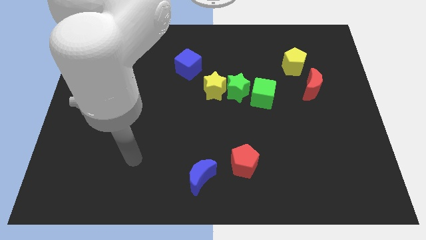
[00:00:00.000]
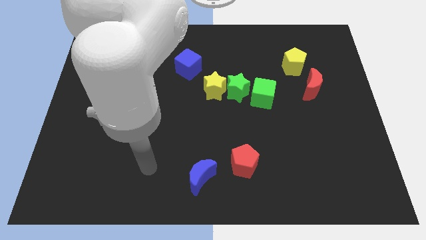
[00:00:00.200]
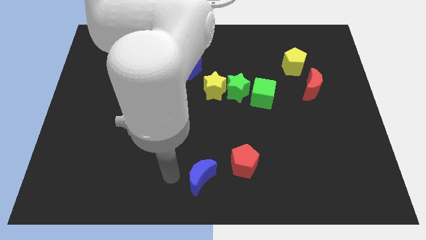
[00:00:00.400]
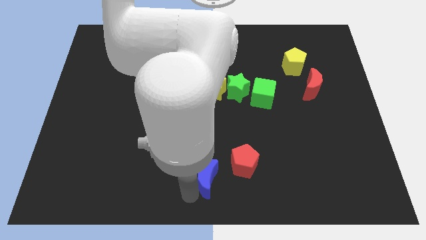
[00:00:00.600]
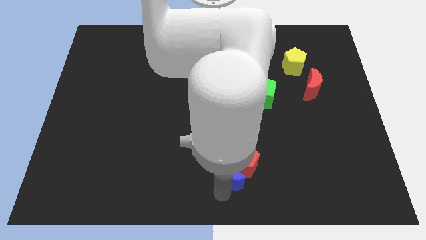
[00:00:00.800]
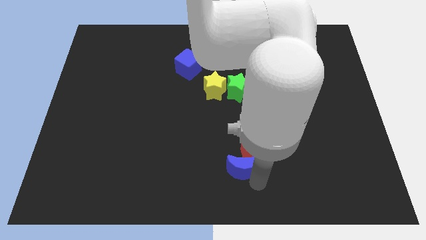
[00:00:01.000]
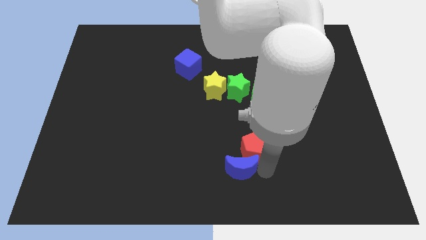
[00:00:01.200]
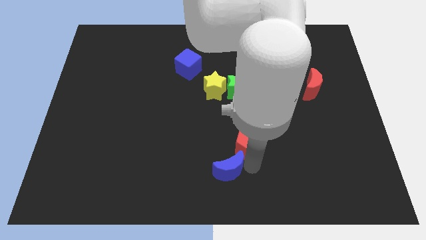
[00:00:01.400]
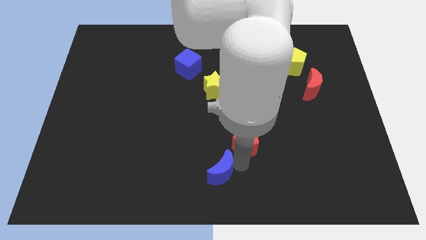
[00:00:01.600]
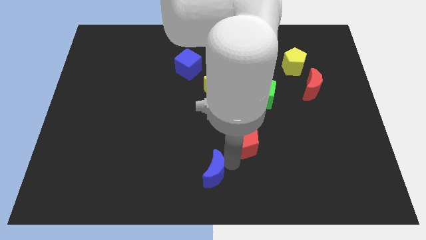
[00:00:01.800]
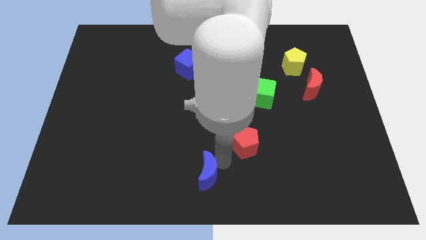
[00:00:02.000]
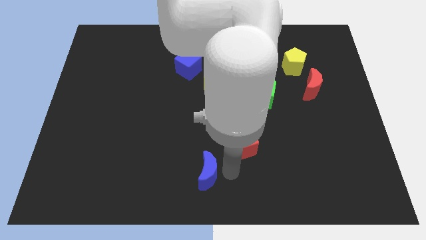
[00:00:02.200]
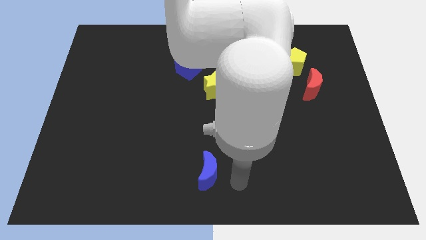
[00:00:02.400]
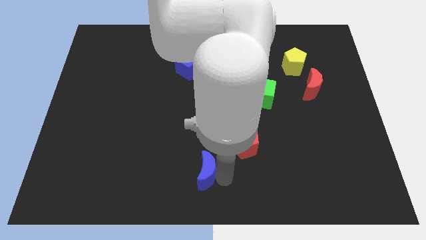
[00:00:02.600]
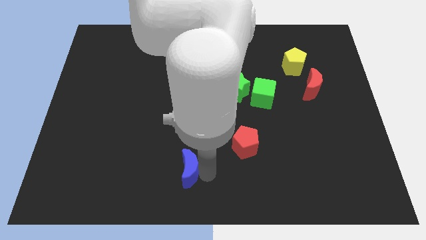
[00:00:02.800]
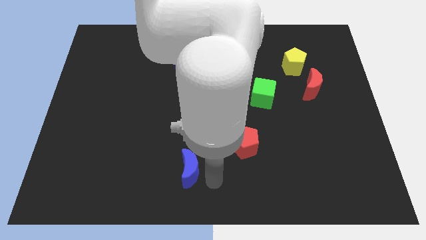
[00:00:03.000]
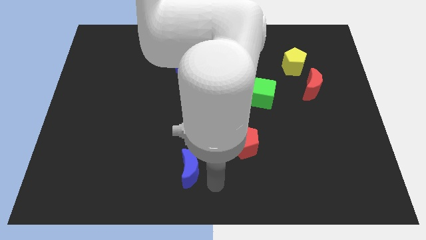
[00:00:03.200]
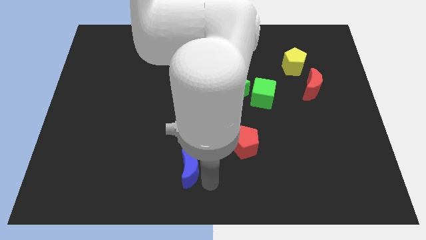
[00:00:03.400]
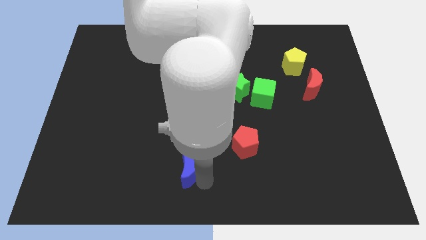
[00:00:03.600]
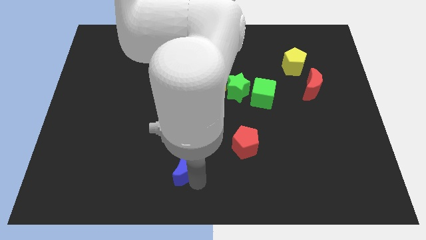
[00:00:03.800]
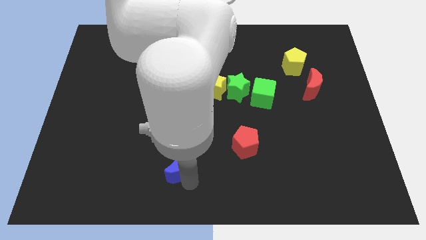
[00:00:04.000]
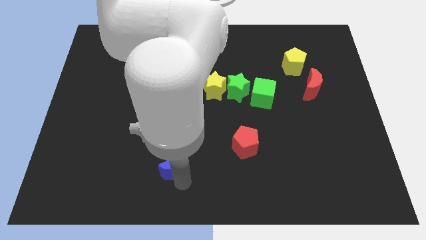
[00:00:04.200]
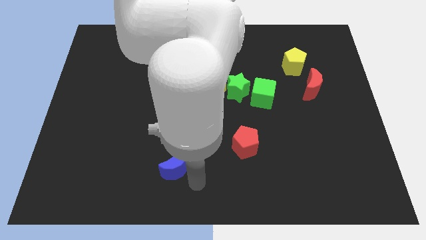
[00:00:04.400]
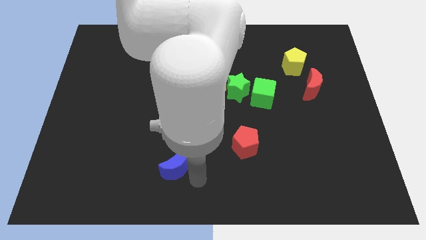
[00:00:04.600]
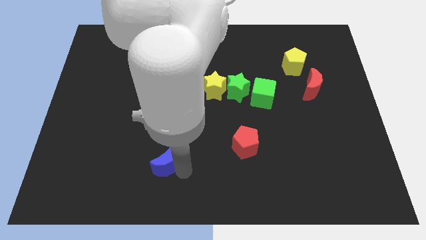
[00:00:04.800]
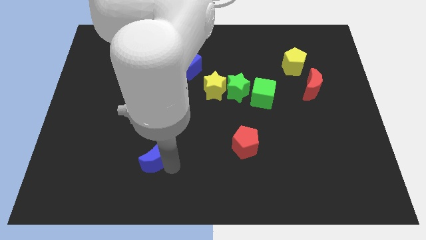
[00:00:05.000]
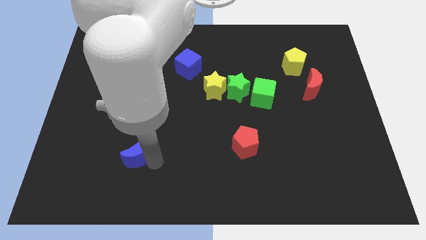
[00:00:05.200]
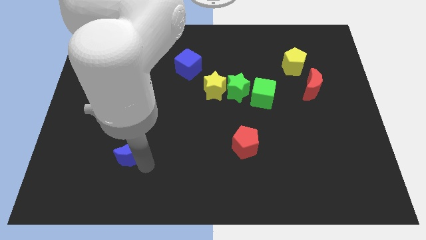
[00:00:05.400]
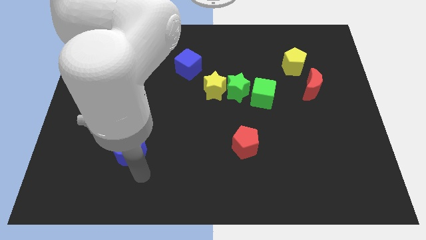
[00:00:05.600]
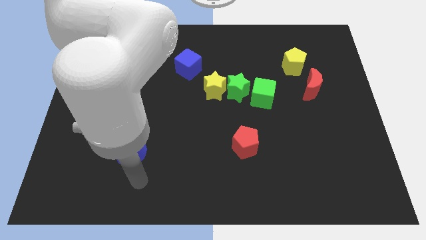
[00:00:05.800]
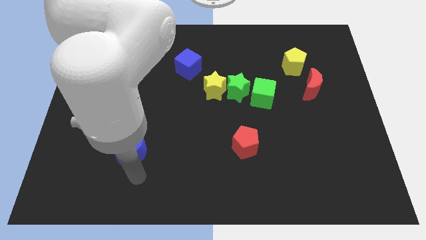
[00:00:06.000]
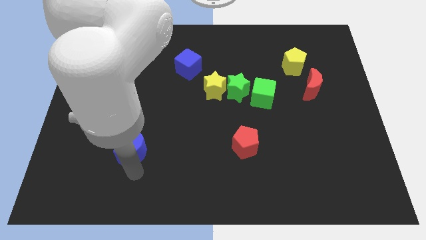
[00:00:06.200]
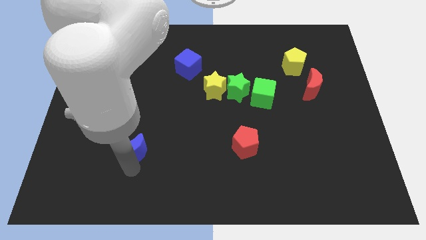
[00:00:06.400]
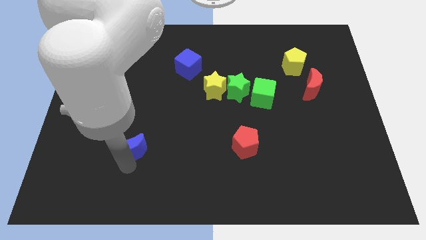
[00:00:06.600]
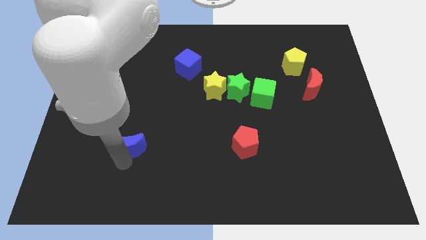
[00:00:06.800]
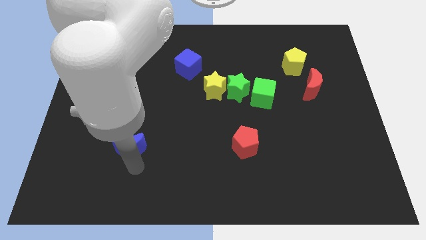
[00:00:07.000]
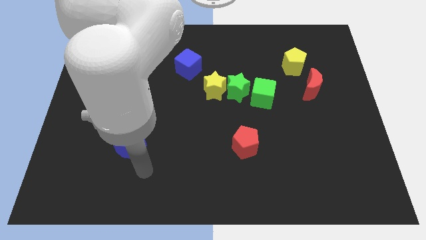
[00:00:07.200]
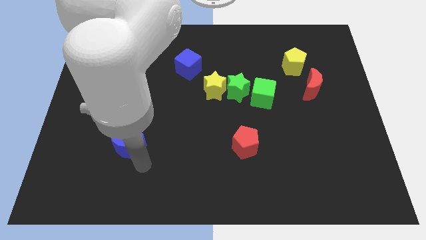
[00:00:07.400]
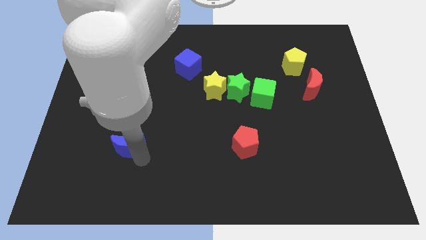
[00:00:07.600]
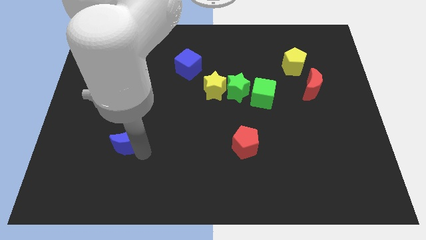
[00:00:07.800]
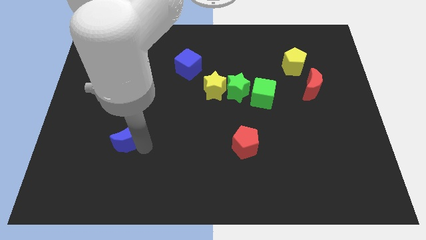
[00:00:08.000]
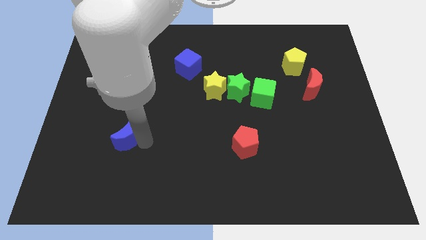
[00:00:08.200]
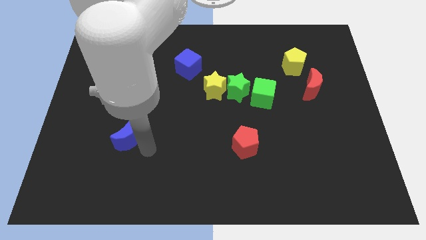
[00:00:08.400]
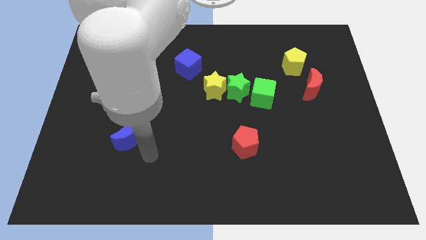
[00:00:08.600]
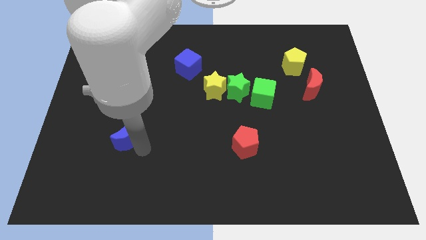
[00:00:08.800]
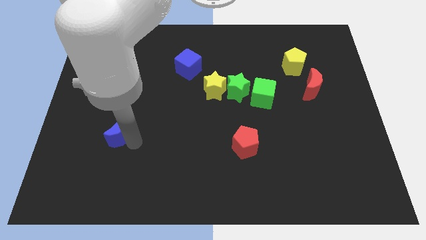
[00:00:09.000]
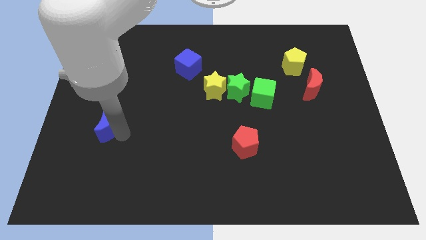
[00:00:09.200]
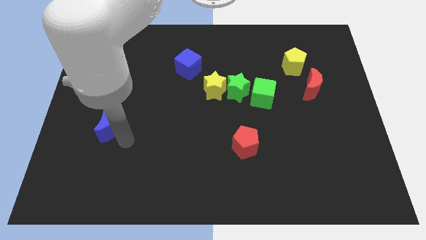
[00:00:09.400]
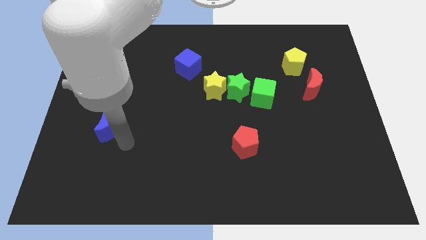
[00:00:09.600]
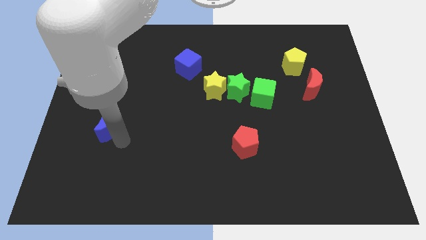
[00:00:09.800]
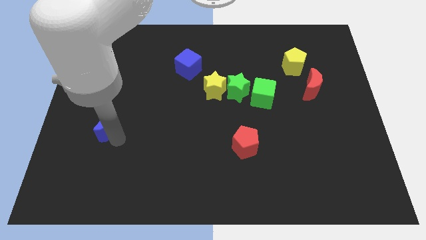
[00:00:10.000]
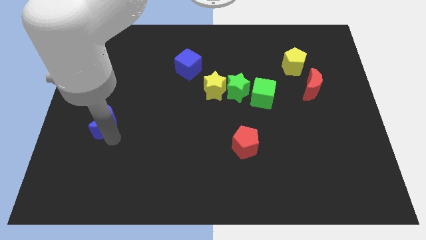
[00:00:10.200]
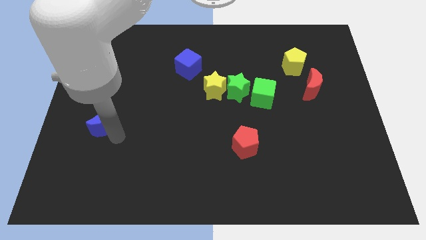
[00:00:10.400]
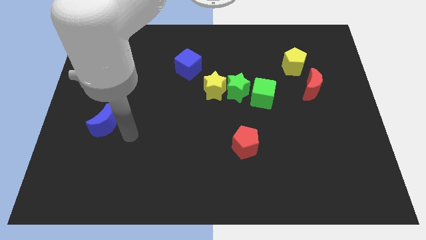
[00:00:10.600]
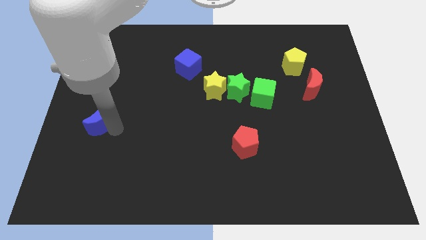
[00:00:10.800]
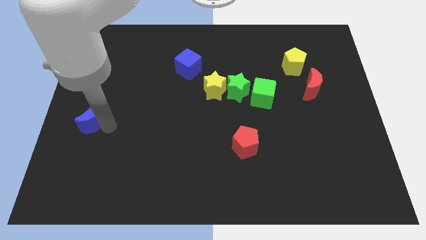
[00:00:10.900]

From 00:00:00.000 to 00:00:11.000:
push the blue moon to the left side

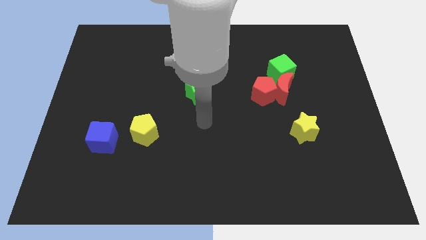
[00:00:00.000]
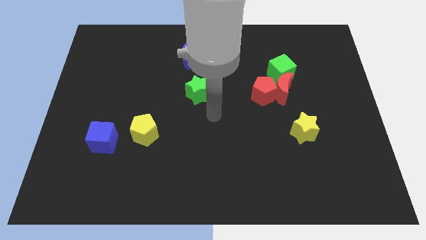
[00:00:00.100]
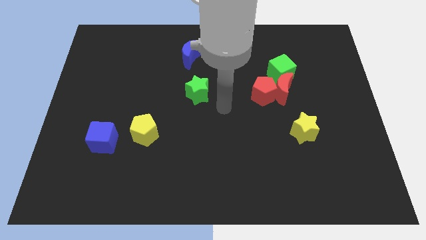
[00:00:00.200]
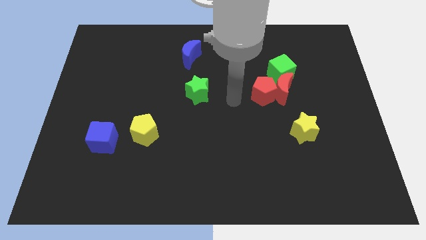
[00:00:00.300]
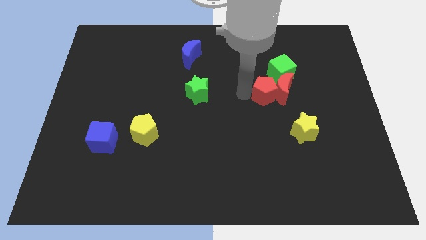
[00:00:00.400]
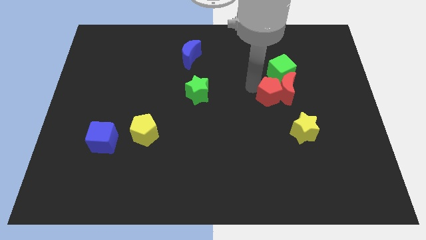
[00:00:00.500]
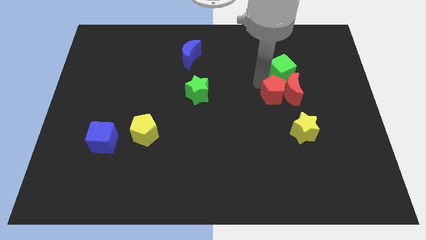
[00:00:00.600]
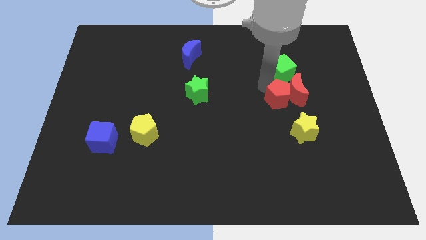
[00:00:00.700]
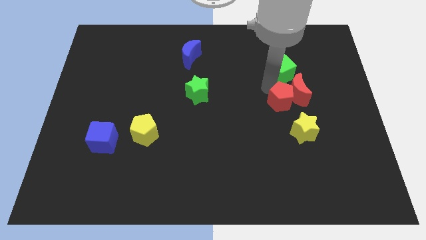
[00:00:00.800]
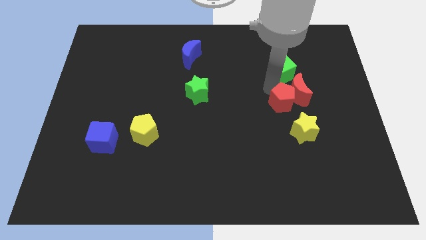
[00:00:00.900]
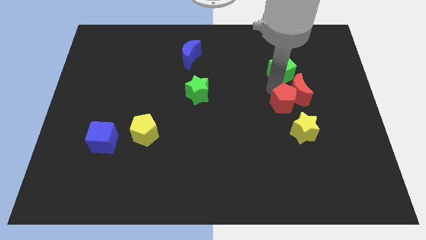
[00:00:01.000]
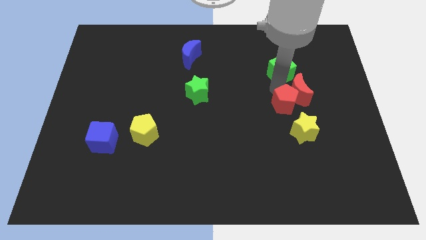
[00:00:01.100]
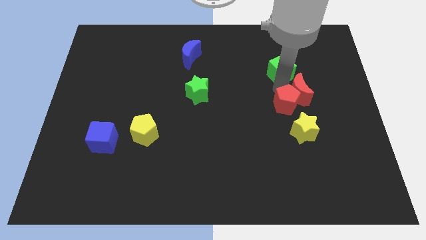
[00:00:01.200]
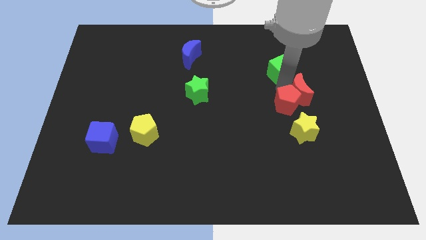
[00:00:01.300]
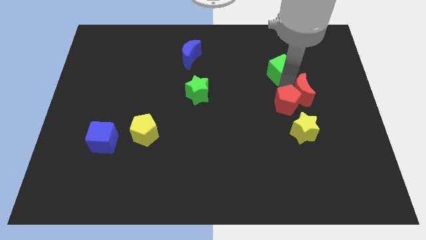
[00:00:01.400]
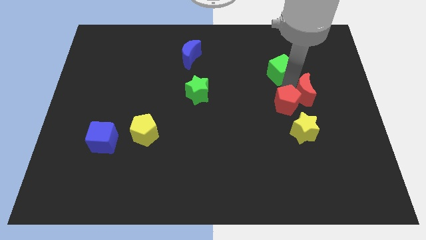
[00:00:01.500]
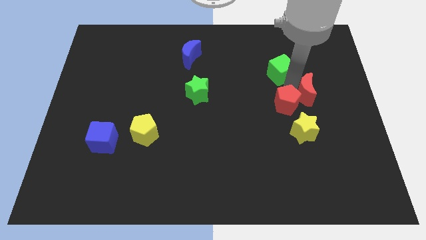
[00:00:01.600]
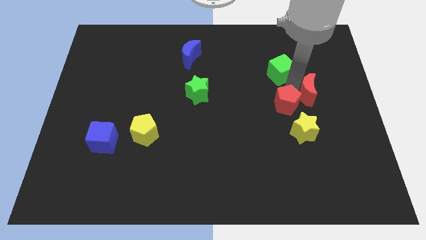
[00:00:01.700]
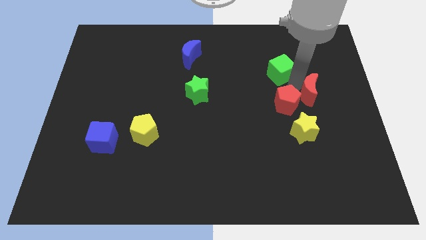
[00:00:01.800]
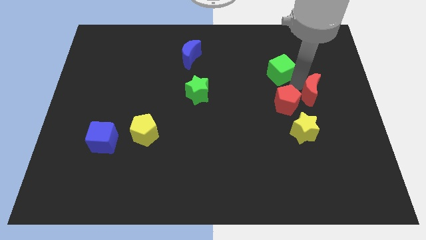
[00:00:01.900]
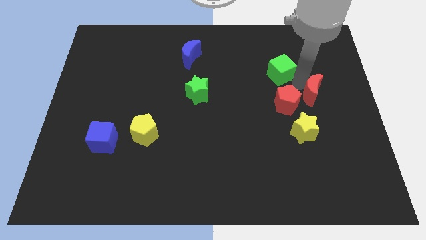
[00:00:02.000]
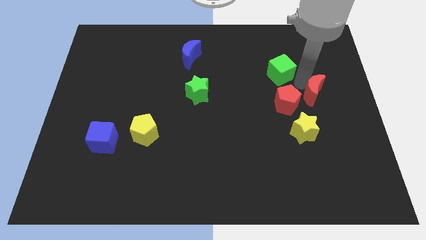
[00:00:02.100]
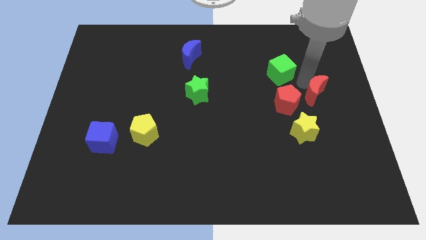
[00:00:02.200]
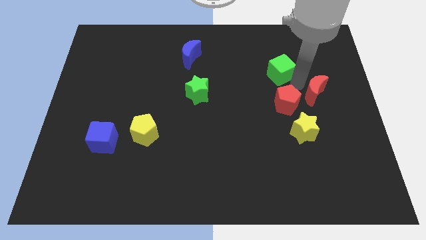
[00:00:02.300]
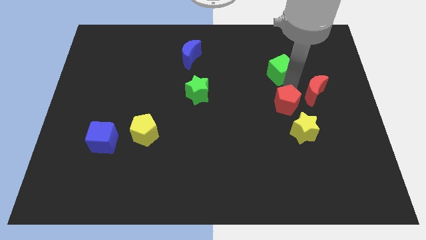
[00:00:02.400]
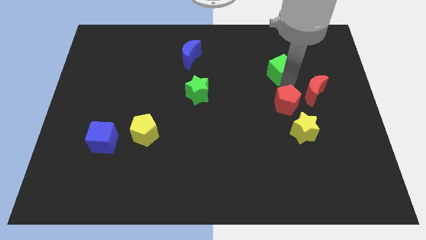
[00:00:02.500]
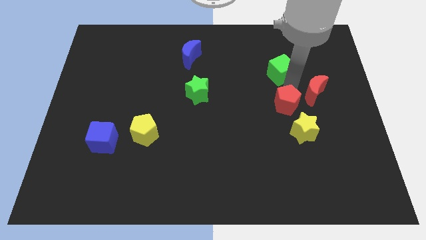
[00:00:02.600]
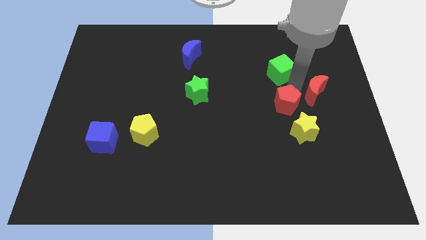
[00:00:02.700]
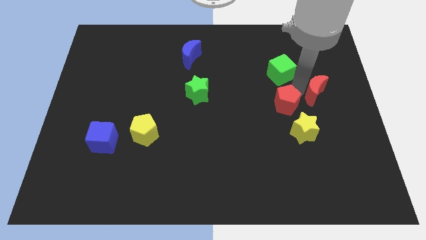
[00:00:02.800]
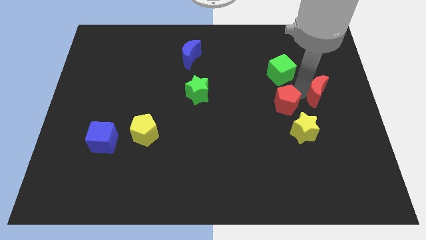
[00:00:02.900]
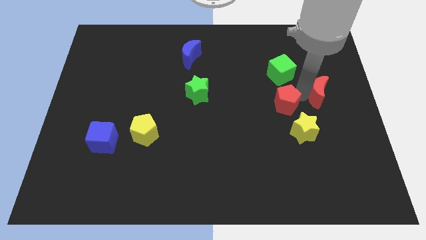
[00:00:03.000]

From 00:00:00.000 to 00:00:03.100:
move the red moon to the right side of the board
